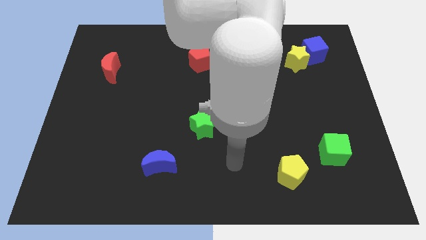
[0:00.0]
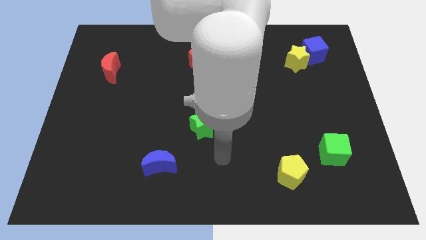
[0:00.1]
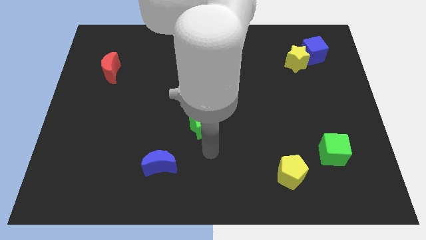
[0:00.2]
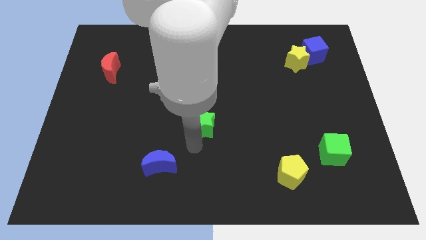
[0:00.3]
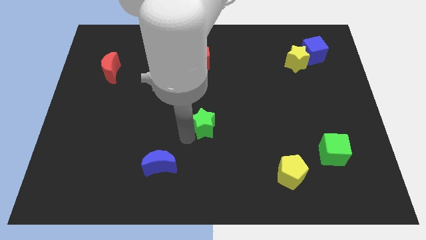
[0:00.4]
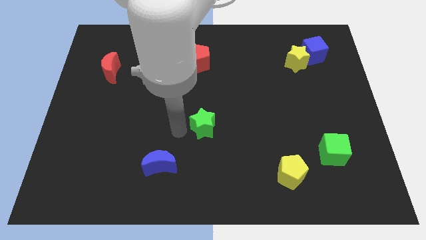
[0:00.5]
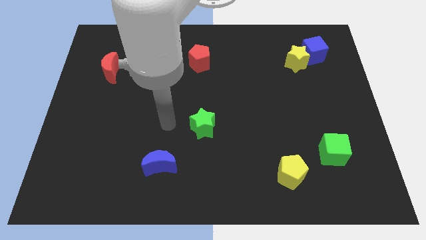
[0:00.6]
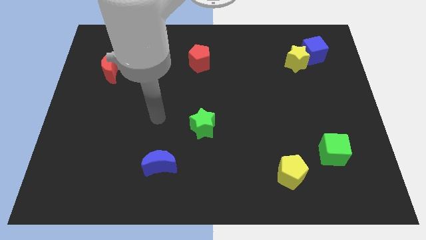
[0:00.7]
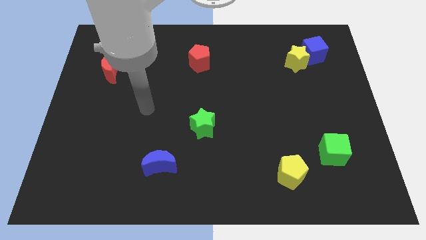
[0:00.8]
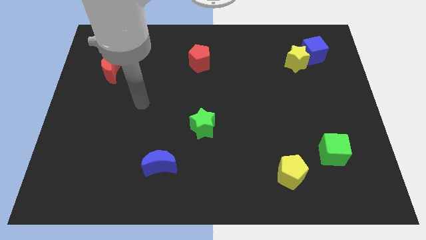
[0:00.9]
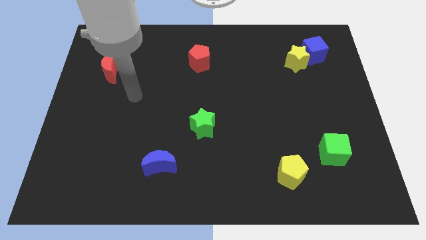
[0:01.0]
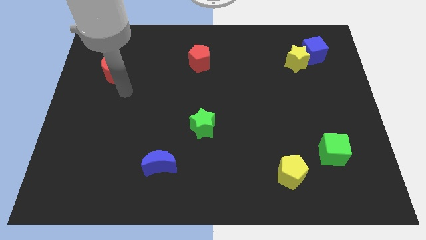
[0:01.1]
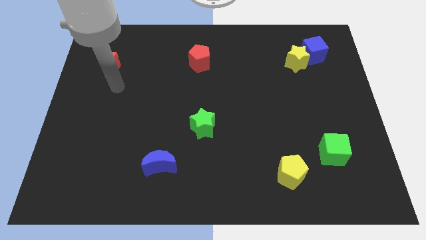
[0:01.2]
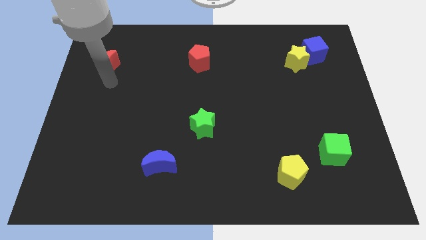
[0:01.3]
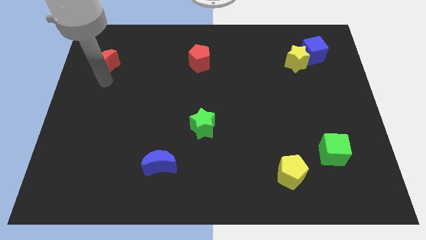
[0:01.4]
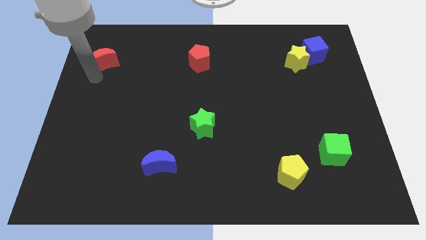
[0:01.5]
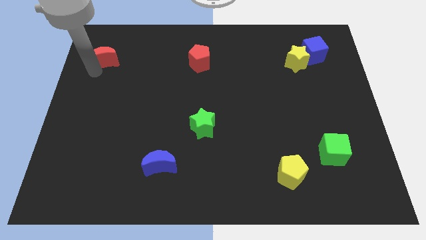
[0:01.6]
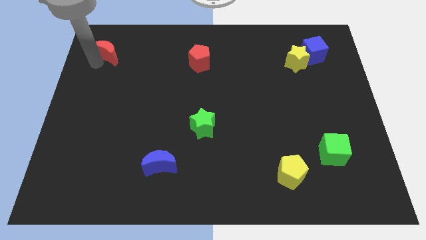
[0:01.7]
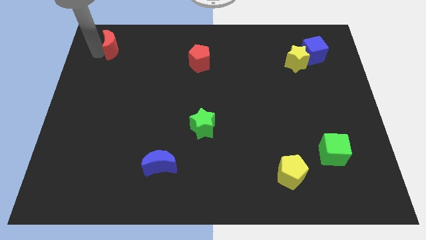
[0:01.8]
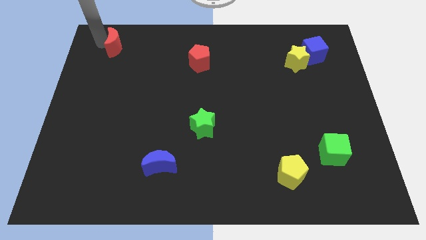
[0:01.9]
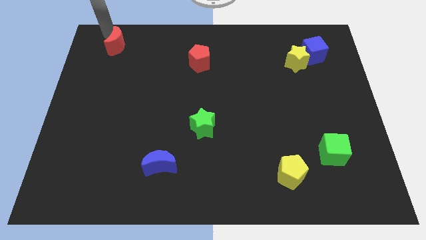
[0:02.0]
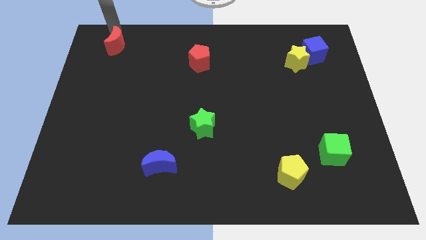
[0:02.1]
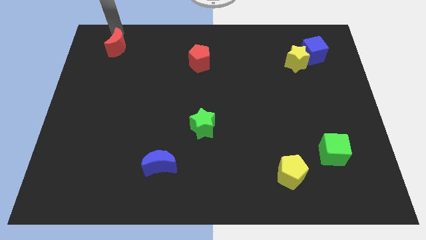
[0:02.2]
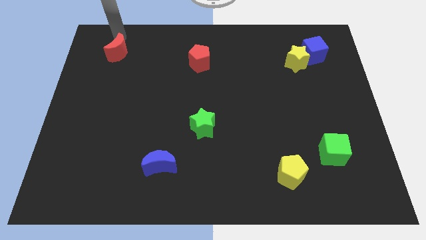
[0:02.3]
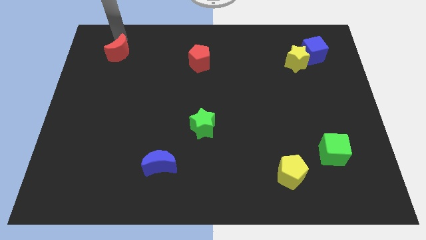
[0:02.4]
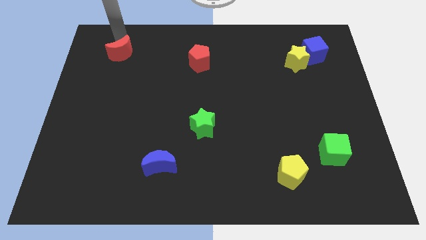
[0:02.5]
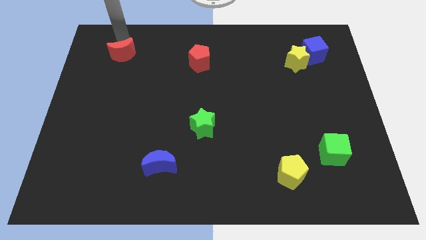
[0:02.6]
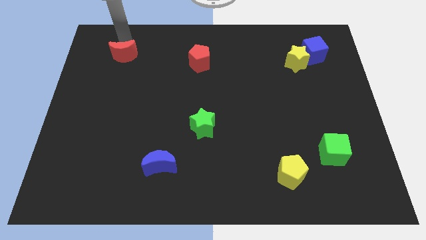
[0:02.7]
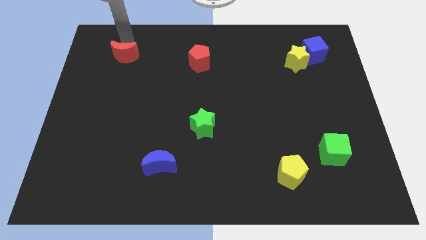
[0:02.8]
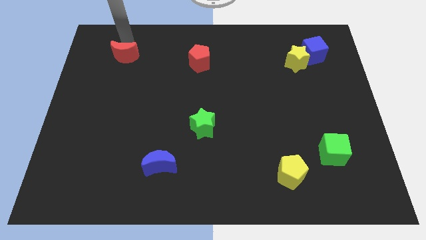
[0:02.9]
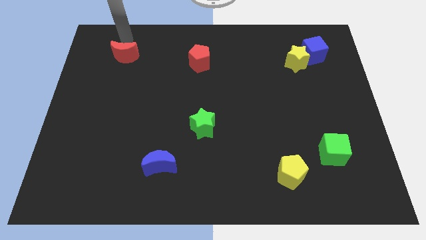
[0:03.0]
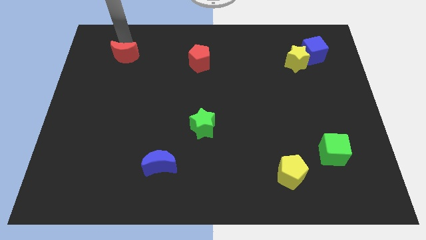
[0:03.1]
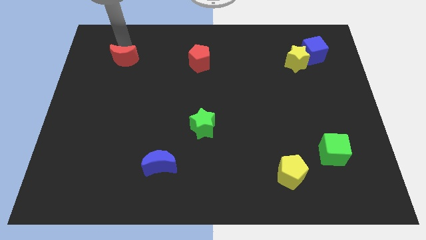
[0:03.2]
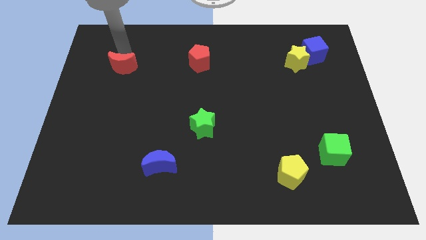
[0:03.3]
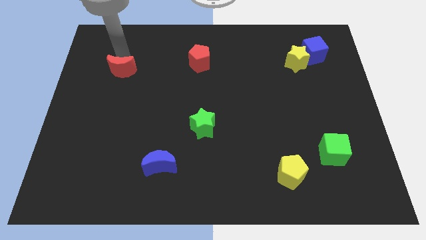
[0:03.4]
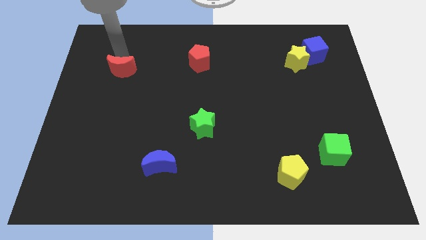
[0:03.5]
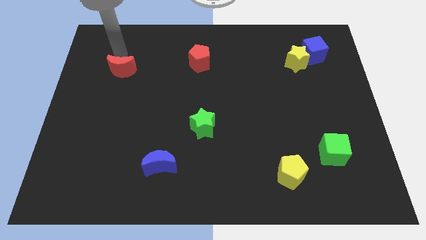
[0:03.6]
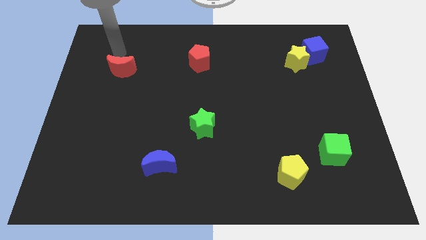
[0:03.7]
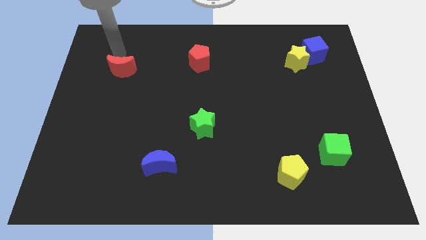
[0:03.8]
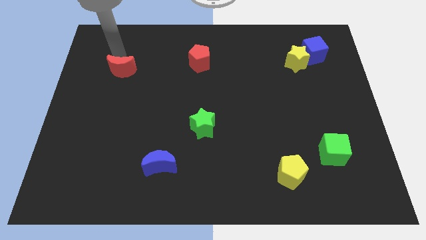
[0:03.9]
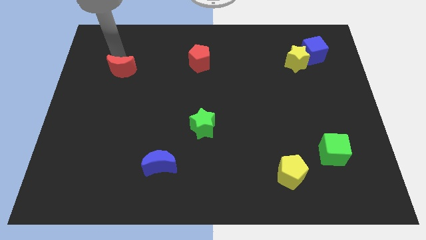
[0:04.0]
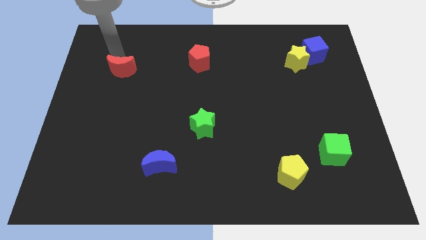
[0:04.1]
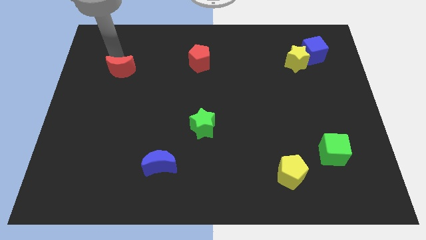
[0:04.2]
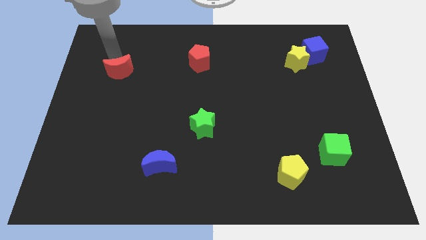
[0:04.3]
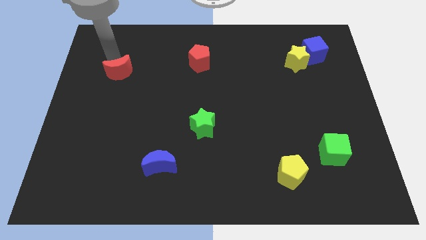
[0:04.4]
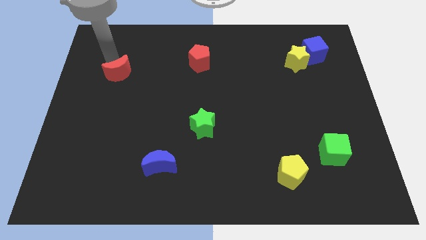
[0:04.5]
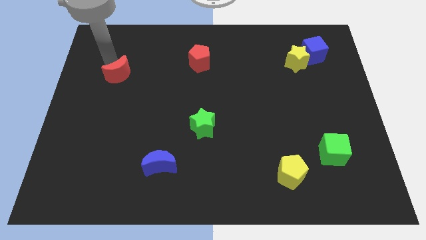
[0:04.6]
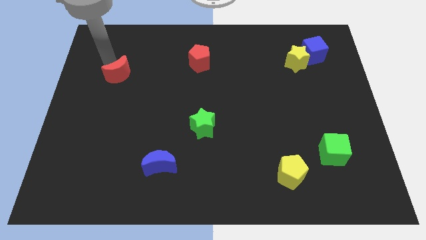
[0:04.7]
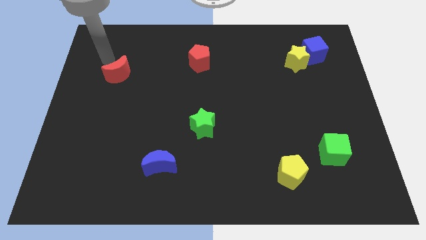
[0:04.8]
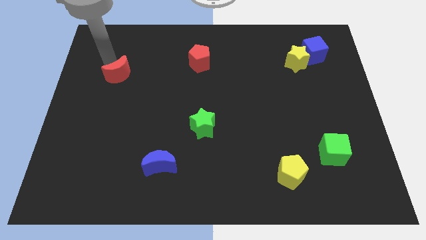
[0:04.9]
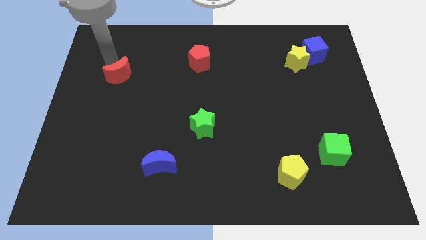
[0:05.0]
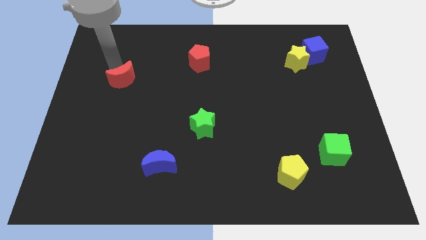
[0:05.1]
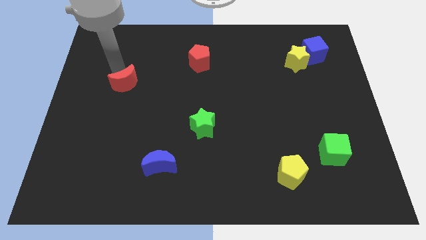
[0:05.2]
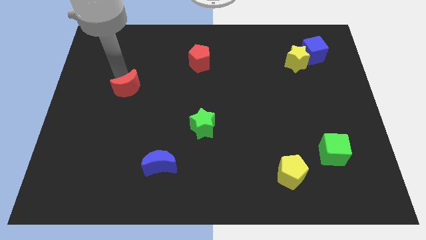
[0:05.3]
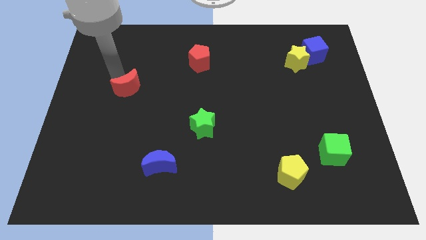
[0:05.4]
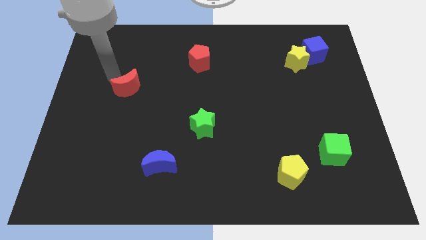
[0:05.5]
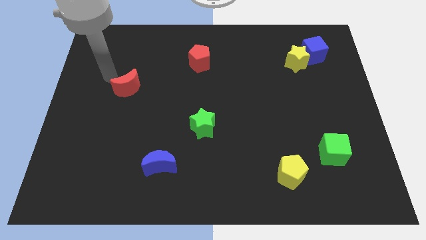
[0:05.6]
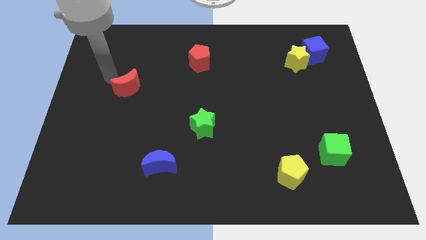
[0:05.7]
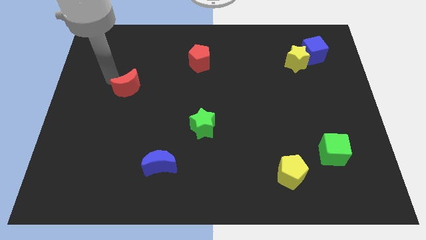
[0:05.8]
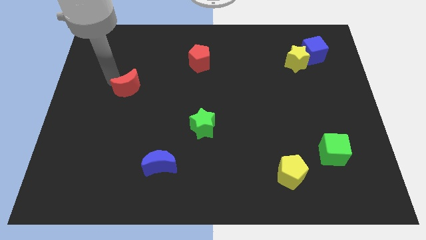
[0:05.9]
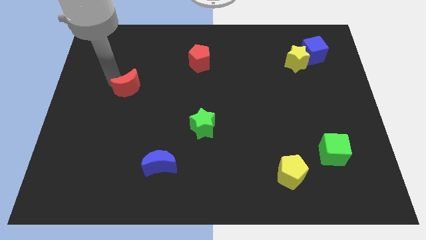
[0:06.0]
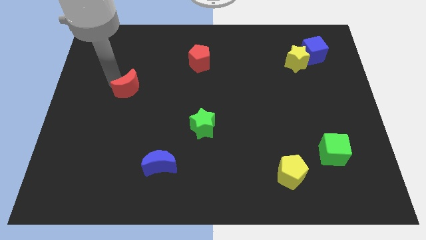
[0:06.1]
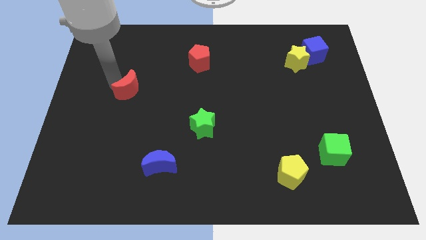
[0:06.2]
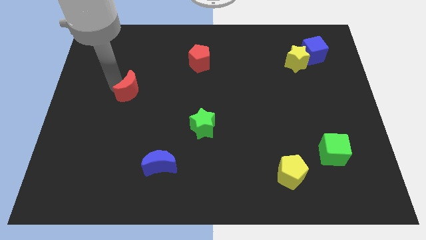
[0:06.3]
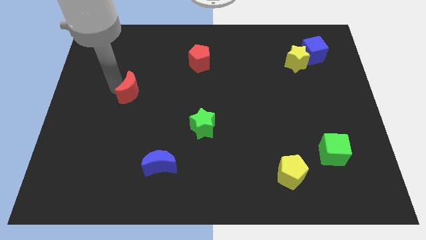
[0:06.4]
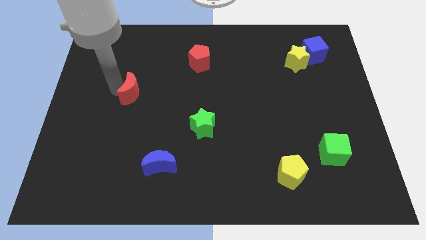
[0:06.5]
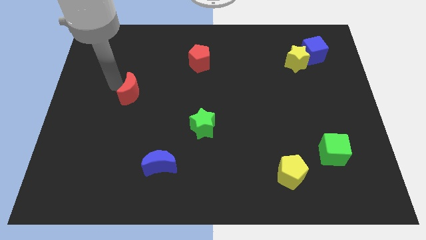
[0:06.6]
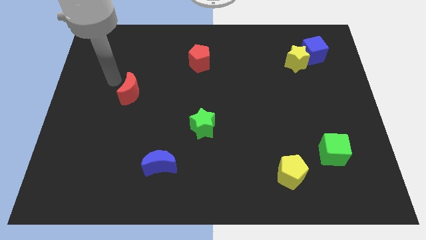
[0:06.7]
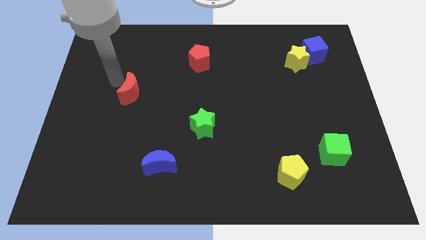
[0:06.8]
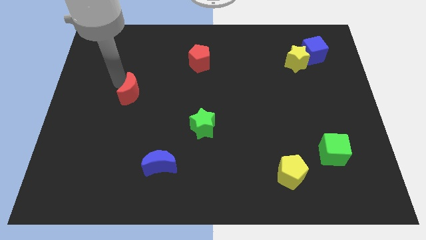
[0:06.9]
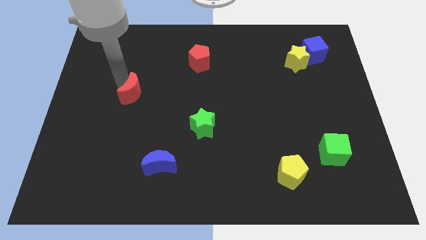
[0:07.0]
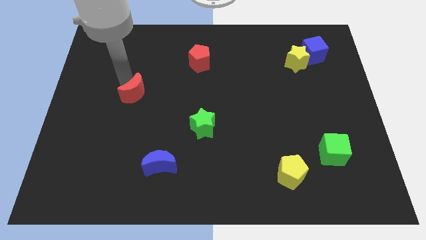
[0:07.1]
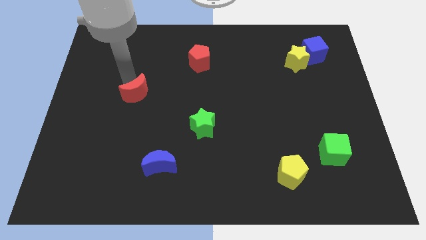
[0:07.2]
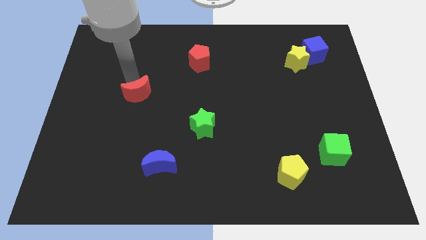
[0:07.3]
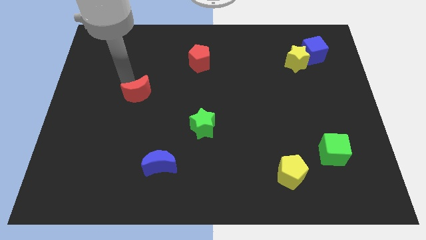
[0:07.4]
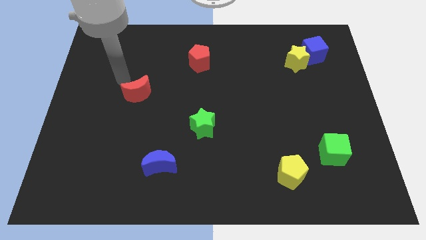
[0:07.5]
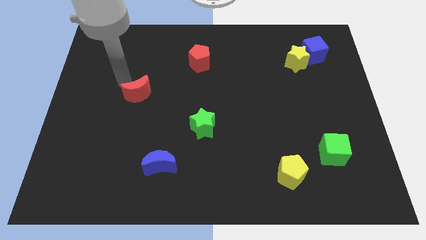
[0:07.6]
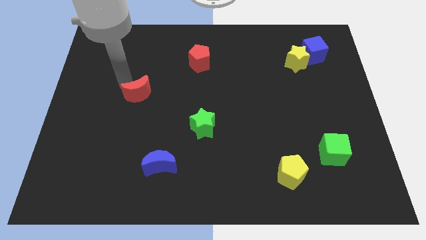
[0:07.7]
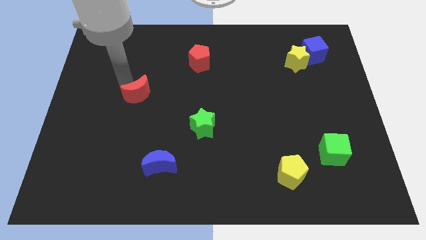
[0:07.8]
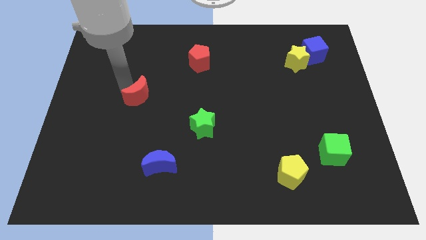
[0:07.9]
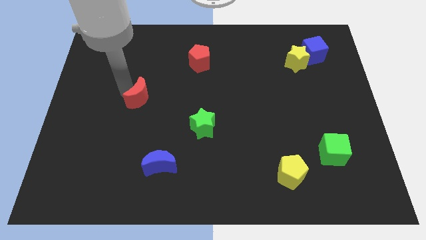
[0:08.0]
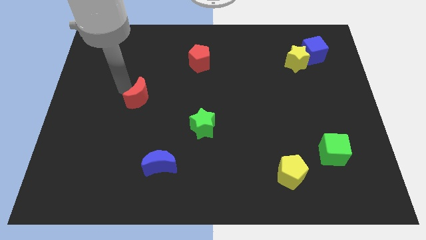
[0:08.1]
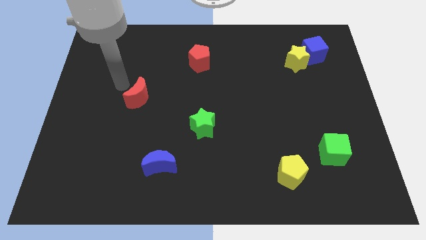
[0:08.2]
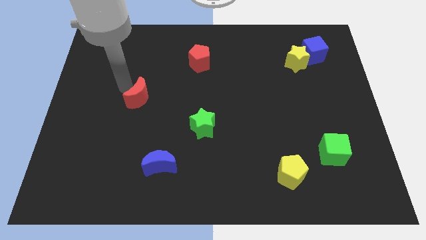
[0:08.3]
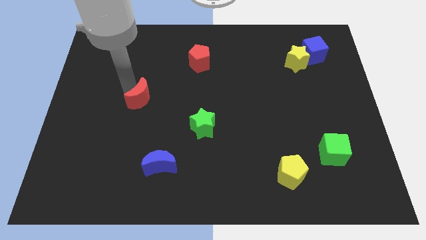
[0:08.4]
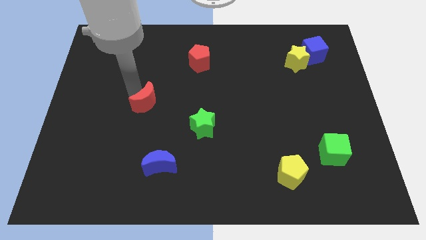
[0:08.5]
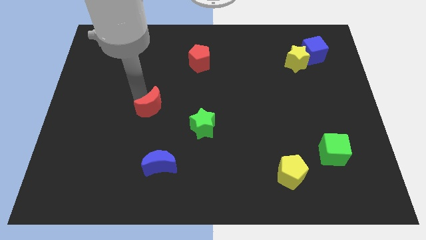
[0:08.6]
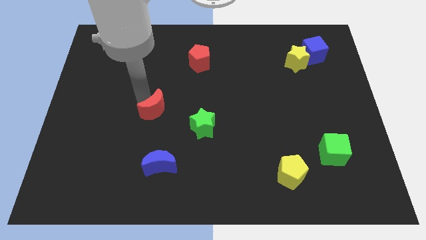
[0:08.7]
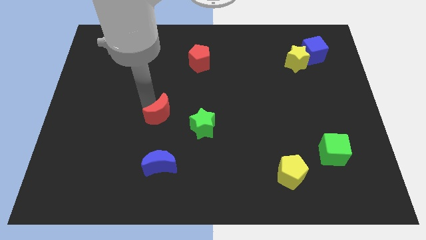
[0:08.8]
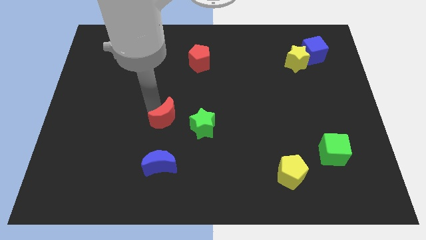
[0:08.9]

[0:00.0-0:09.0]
move the red moon down and then right
